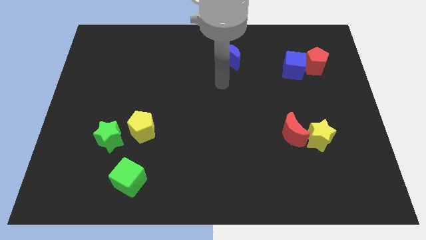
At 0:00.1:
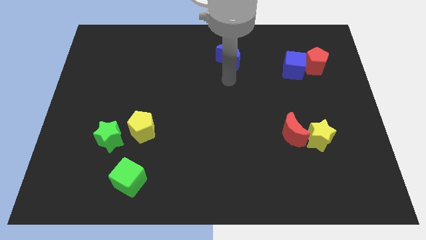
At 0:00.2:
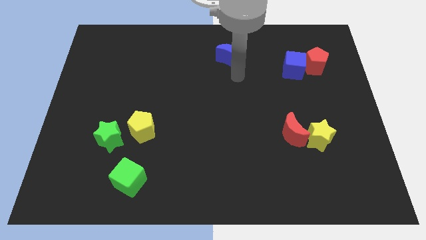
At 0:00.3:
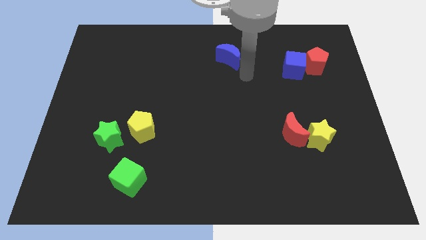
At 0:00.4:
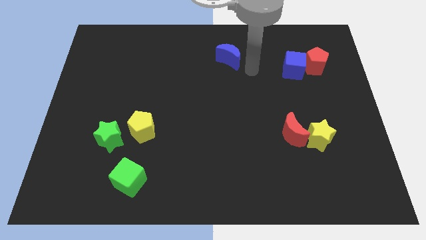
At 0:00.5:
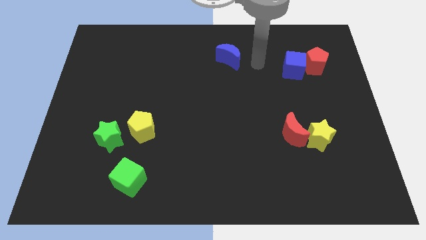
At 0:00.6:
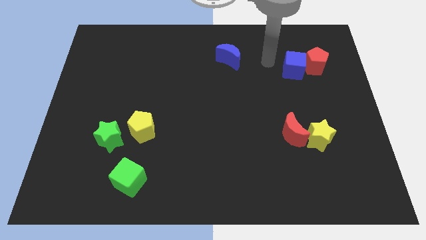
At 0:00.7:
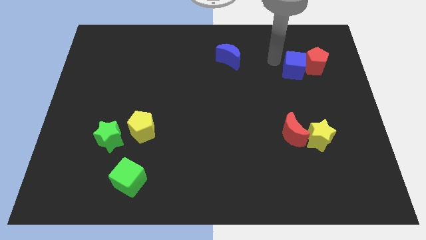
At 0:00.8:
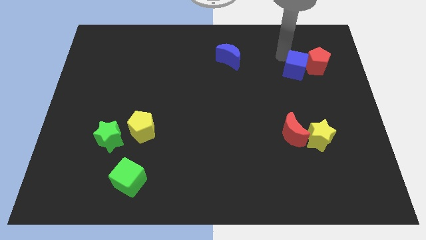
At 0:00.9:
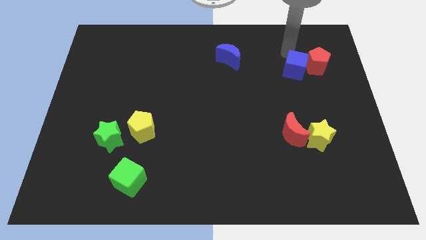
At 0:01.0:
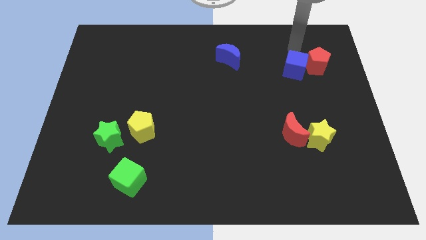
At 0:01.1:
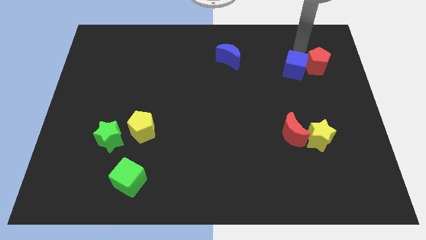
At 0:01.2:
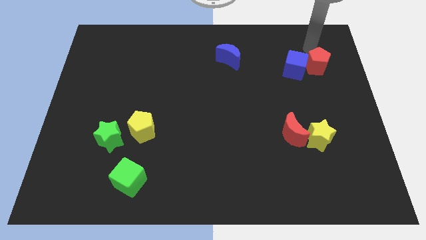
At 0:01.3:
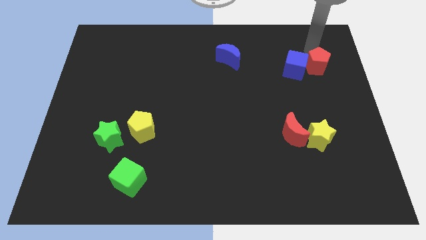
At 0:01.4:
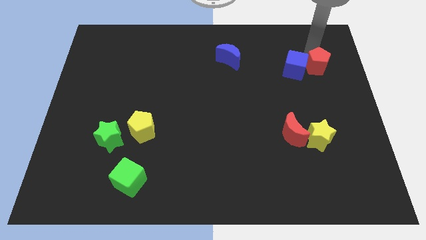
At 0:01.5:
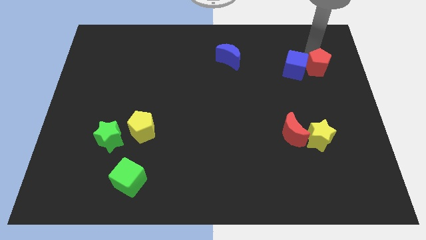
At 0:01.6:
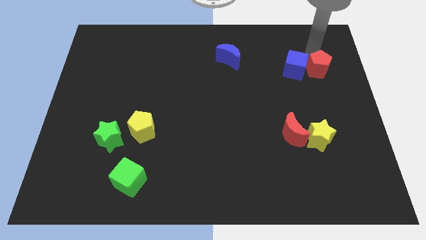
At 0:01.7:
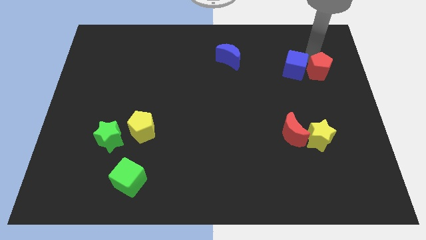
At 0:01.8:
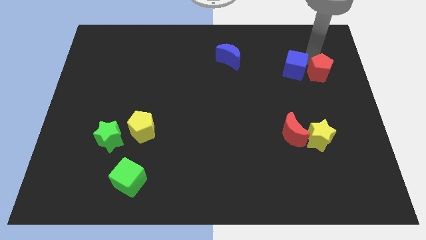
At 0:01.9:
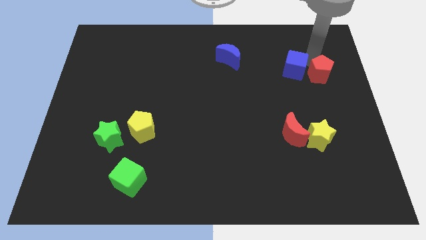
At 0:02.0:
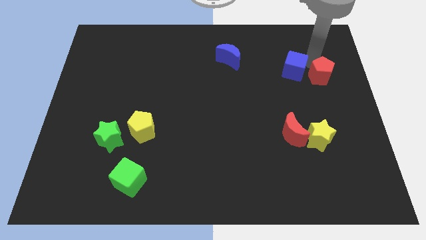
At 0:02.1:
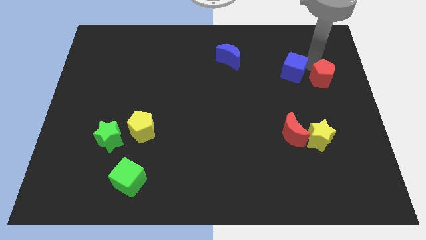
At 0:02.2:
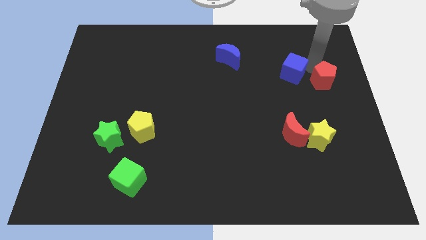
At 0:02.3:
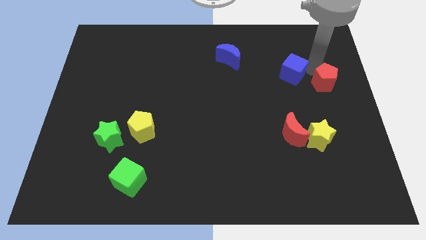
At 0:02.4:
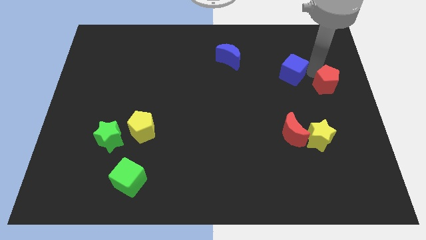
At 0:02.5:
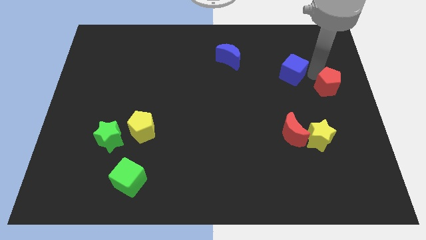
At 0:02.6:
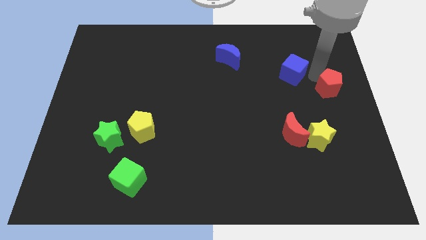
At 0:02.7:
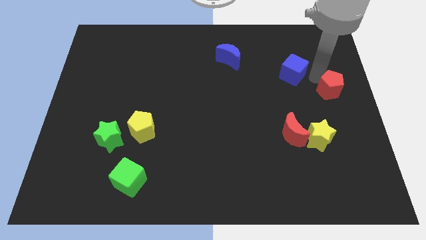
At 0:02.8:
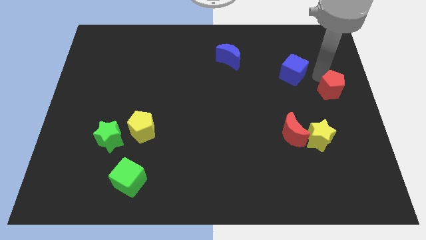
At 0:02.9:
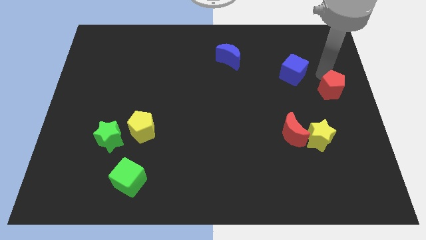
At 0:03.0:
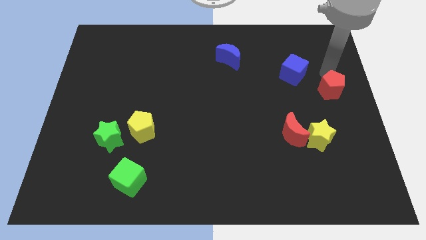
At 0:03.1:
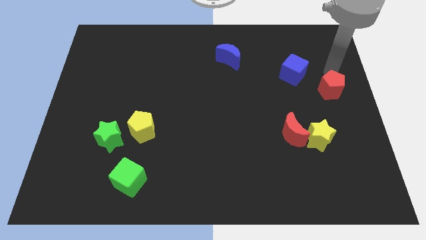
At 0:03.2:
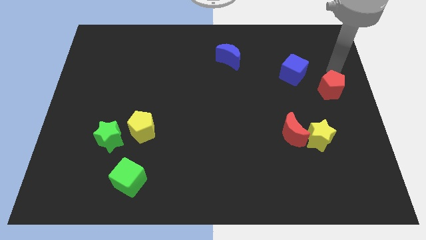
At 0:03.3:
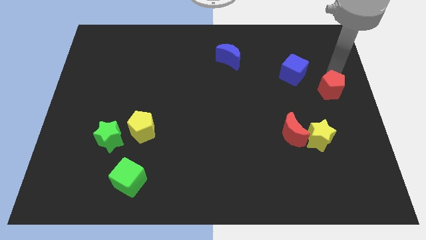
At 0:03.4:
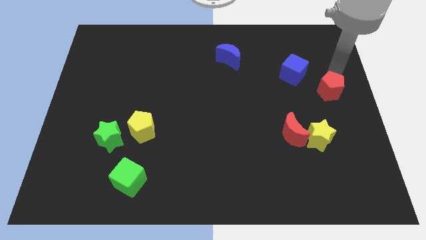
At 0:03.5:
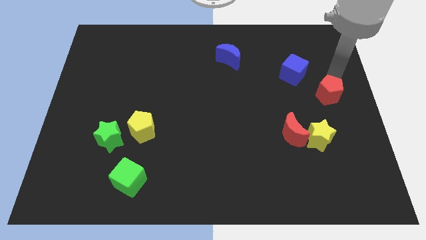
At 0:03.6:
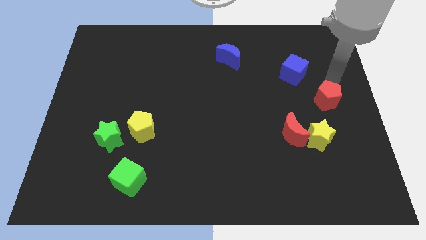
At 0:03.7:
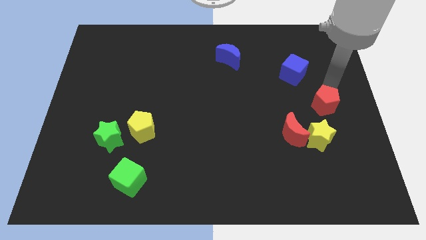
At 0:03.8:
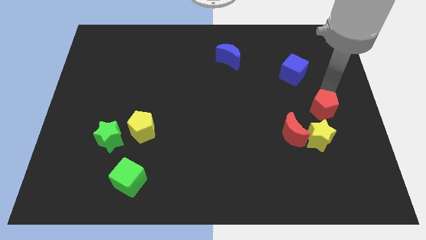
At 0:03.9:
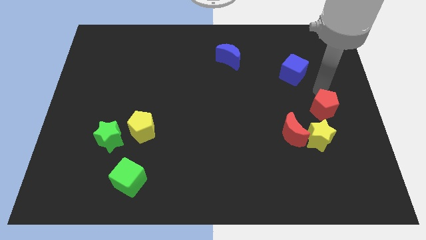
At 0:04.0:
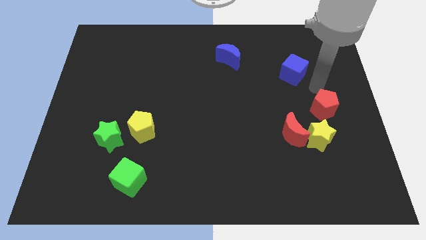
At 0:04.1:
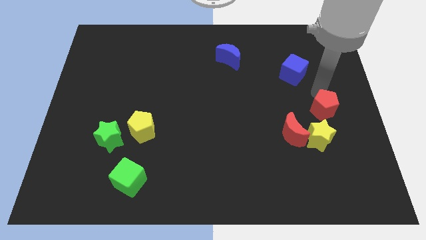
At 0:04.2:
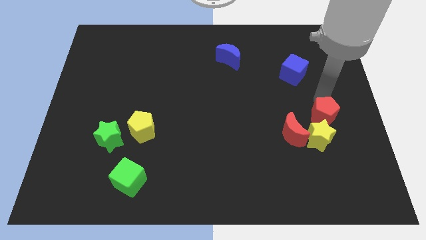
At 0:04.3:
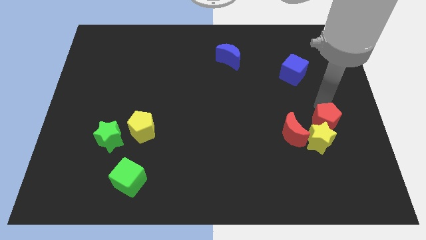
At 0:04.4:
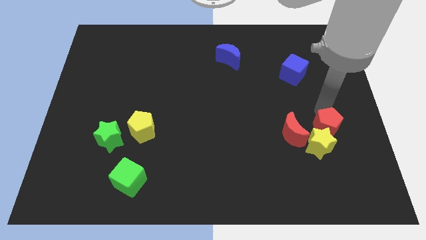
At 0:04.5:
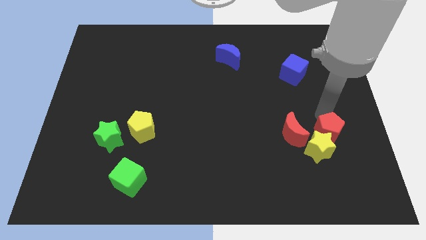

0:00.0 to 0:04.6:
slide the red pentagon downwards

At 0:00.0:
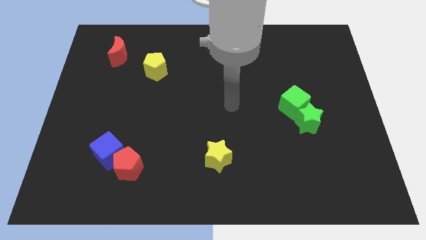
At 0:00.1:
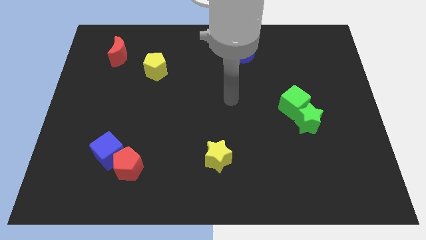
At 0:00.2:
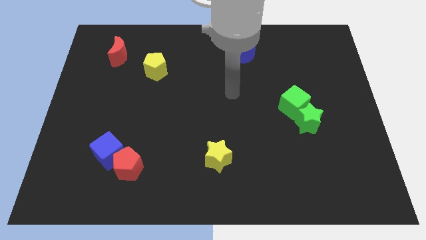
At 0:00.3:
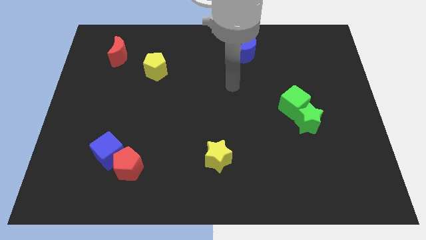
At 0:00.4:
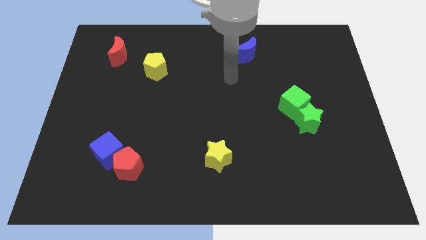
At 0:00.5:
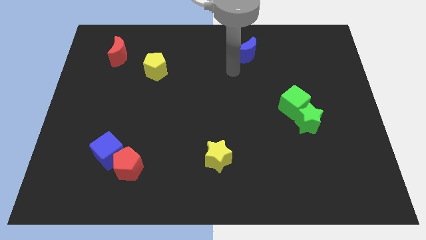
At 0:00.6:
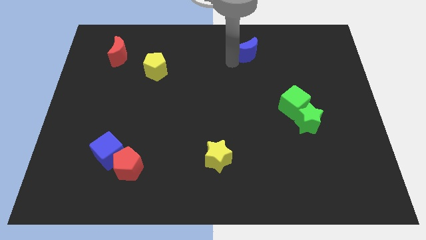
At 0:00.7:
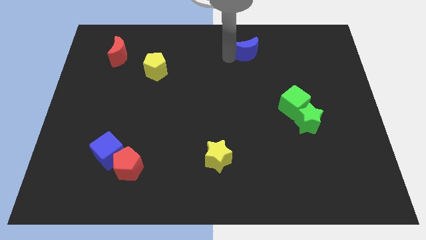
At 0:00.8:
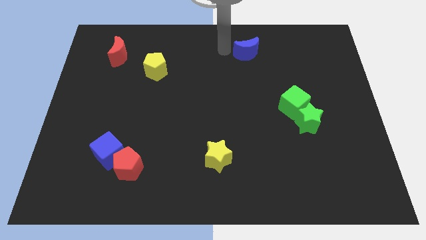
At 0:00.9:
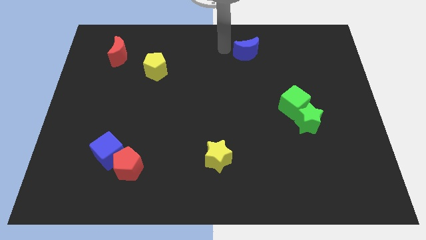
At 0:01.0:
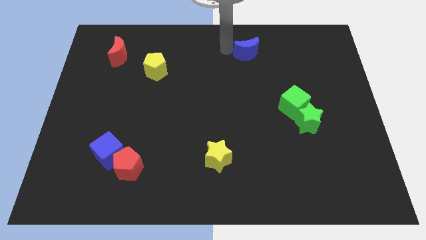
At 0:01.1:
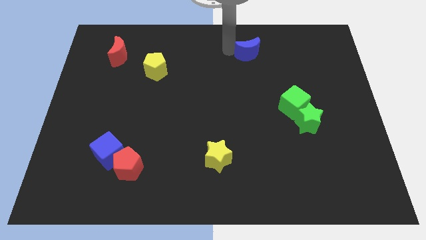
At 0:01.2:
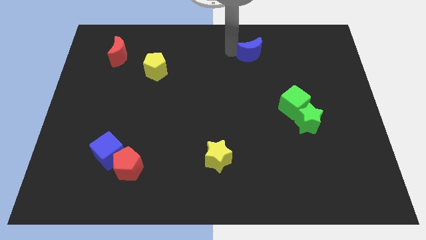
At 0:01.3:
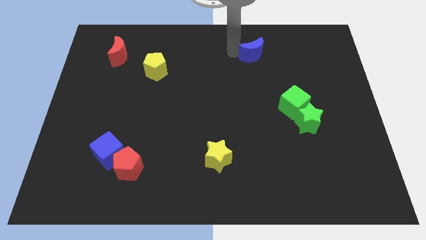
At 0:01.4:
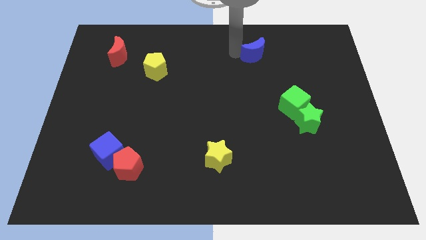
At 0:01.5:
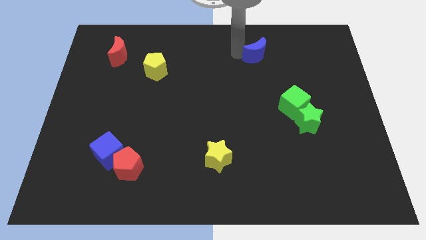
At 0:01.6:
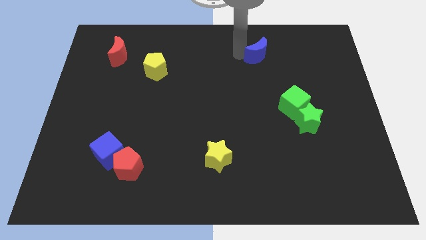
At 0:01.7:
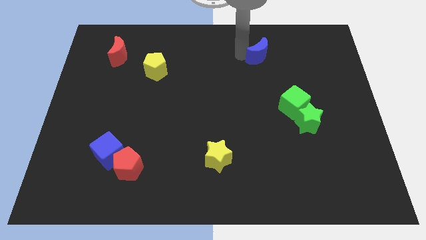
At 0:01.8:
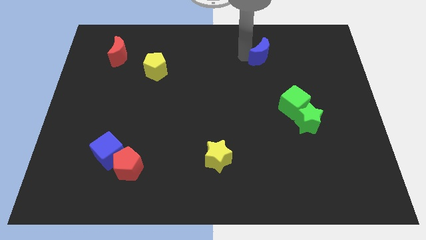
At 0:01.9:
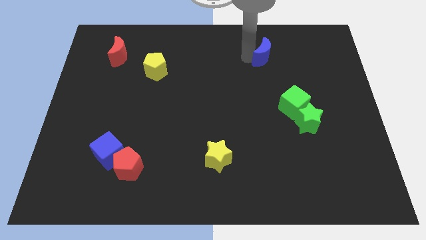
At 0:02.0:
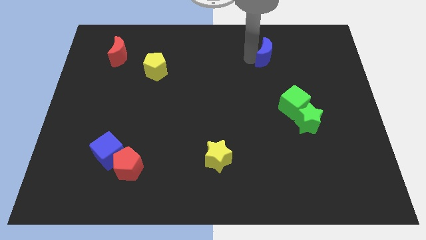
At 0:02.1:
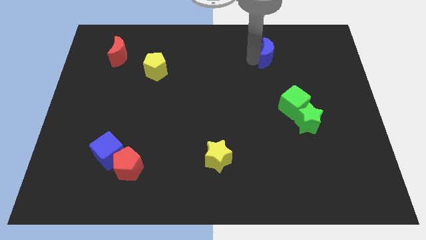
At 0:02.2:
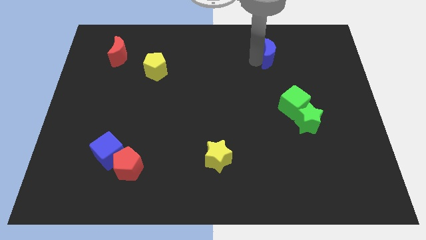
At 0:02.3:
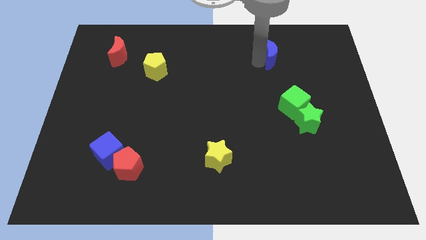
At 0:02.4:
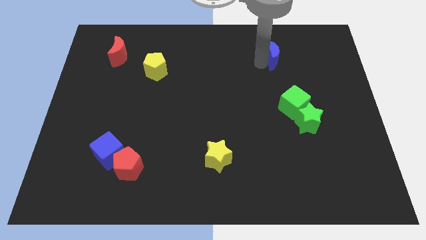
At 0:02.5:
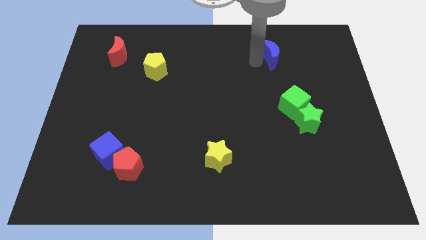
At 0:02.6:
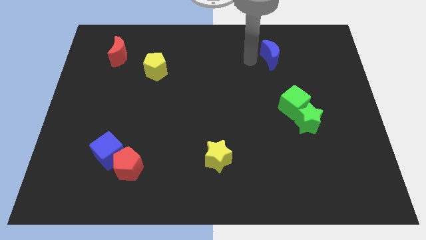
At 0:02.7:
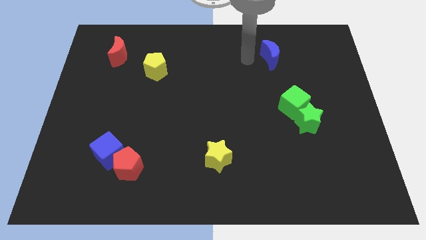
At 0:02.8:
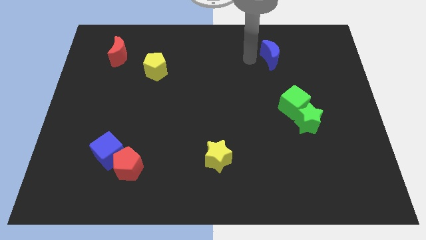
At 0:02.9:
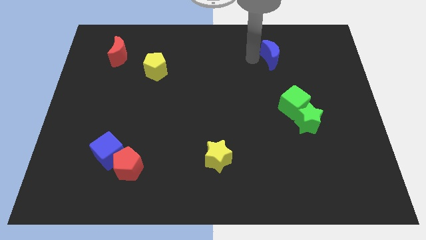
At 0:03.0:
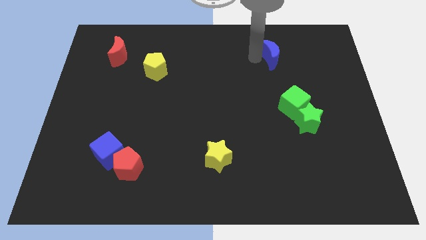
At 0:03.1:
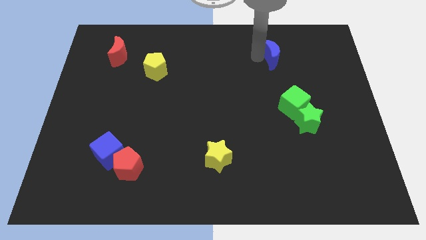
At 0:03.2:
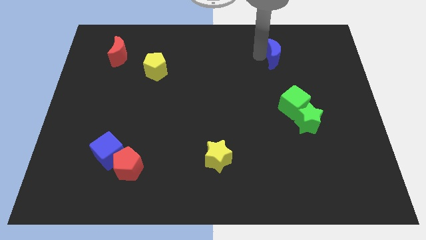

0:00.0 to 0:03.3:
slightly move the blue moon to the right
